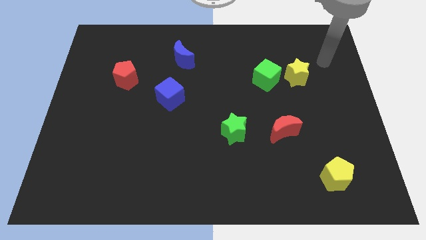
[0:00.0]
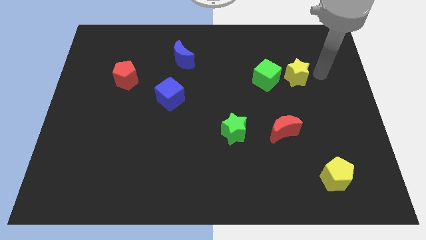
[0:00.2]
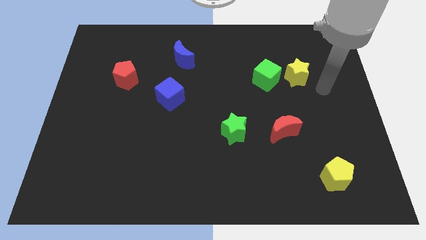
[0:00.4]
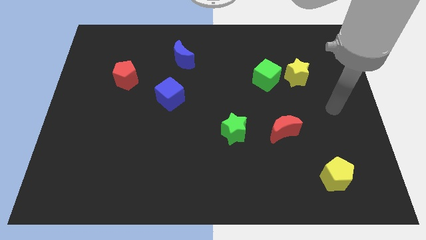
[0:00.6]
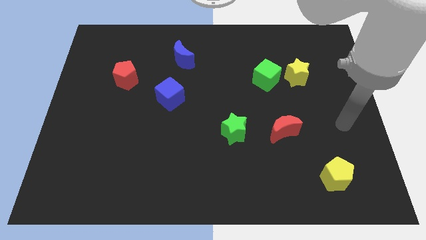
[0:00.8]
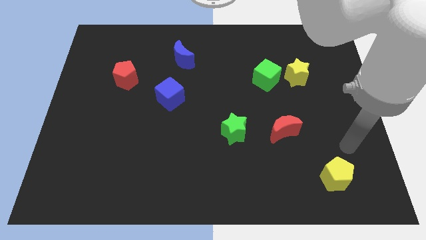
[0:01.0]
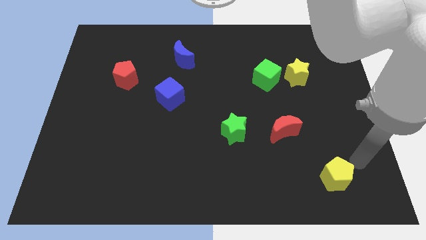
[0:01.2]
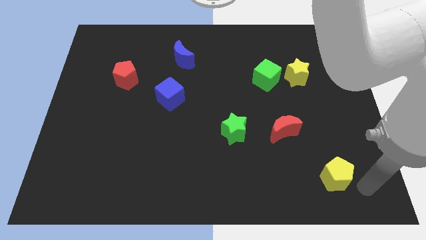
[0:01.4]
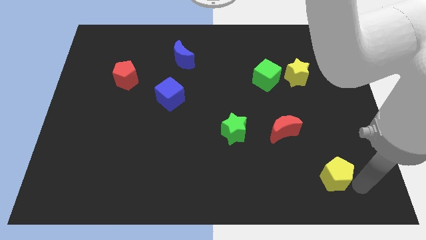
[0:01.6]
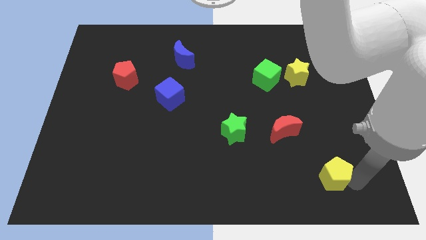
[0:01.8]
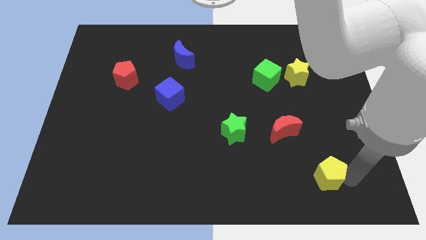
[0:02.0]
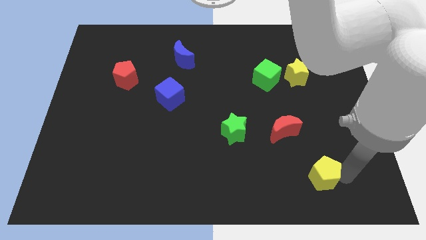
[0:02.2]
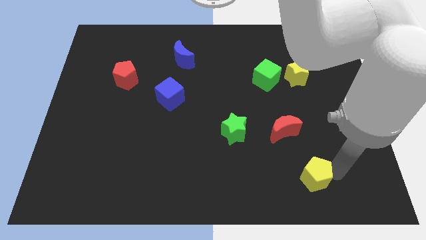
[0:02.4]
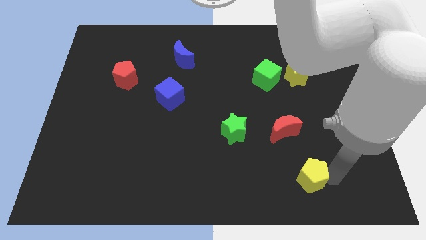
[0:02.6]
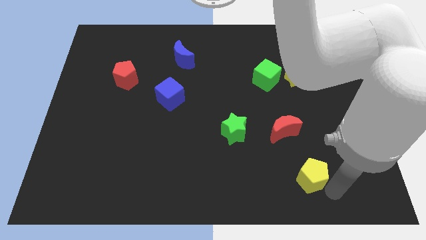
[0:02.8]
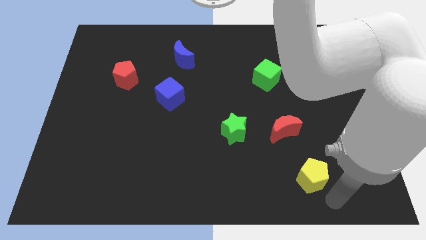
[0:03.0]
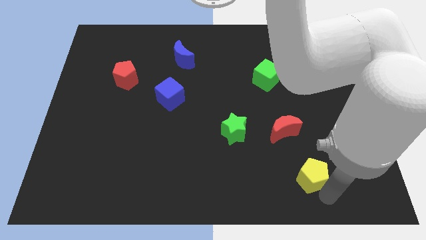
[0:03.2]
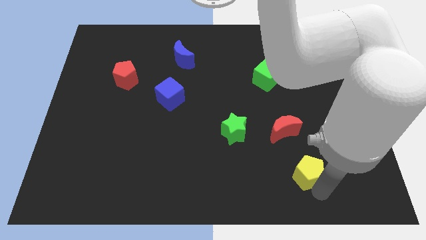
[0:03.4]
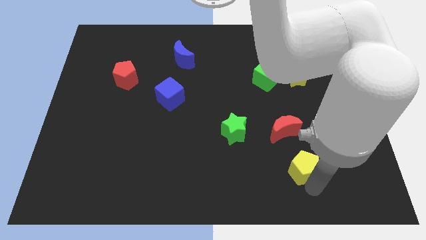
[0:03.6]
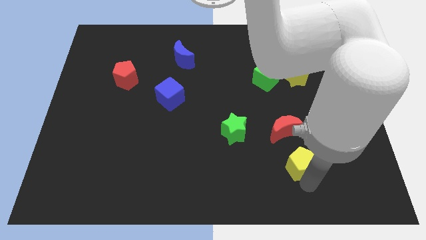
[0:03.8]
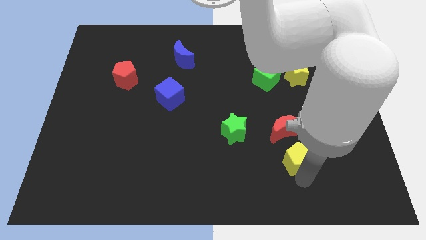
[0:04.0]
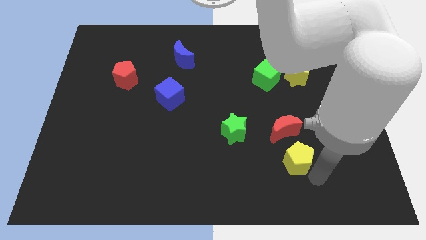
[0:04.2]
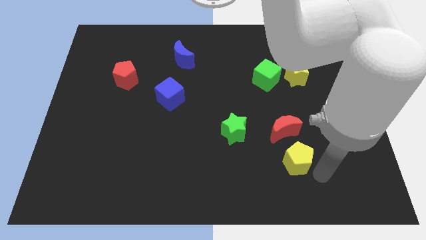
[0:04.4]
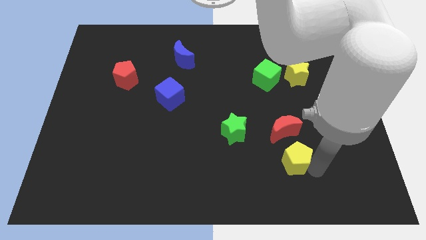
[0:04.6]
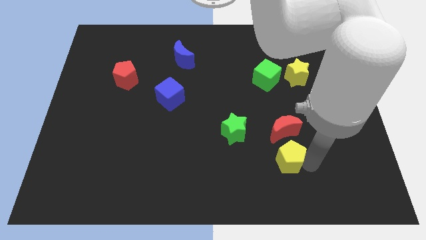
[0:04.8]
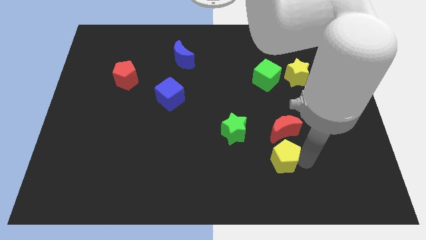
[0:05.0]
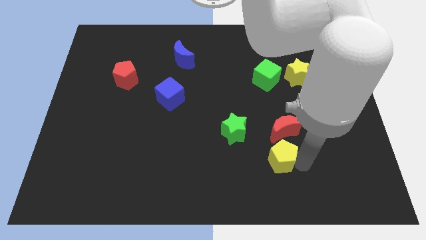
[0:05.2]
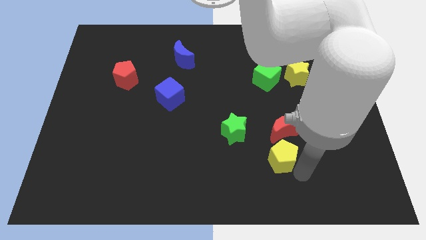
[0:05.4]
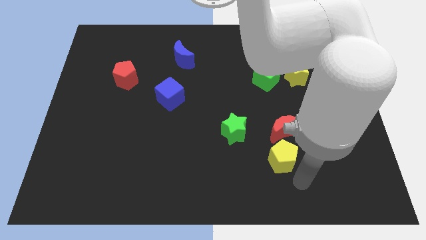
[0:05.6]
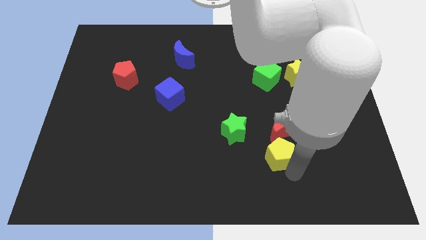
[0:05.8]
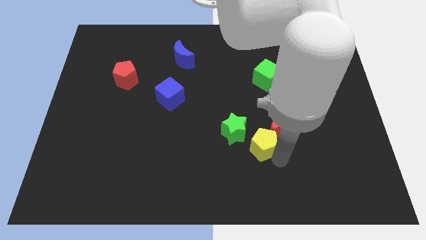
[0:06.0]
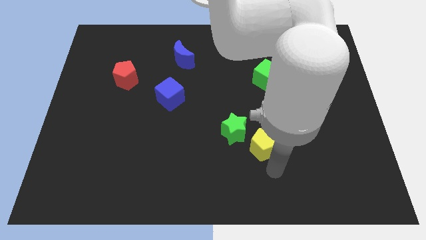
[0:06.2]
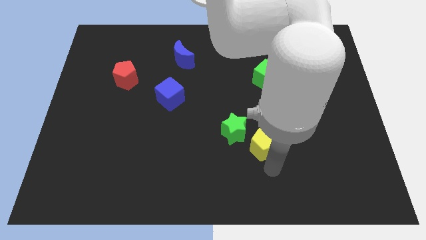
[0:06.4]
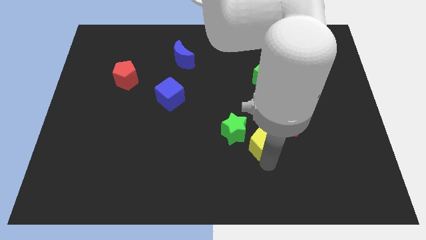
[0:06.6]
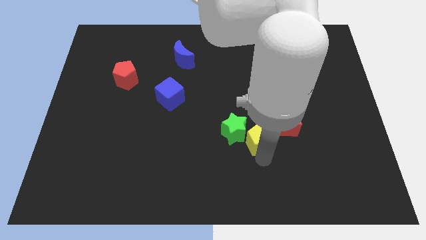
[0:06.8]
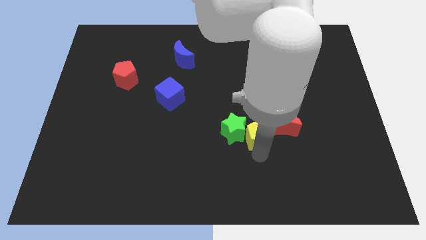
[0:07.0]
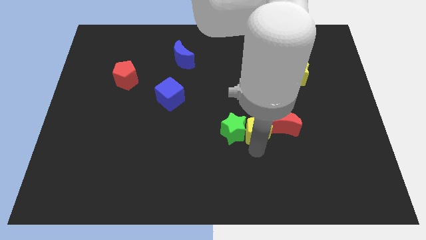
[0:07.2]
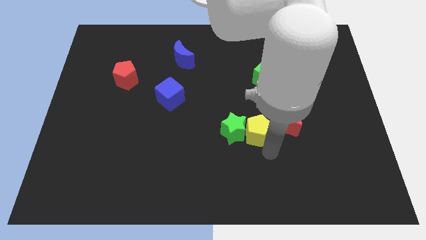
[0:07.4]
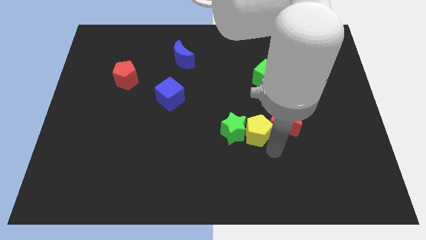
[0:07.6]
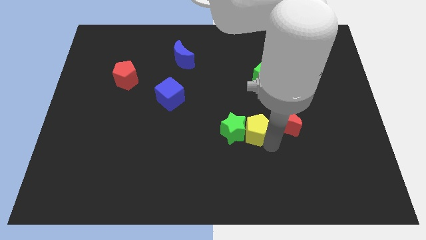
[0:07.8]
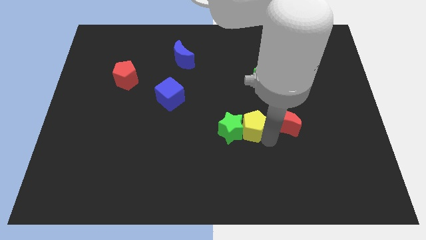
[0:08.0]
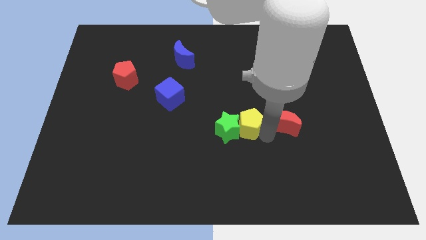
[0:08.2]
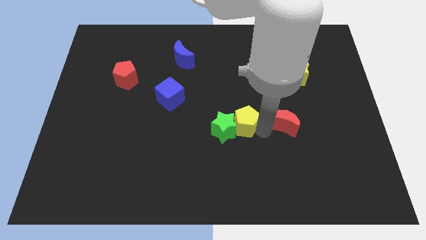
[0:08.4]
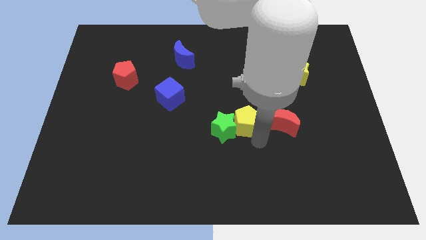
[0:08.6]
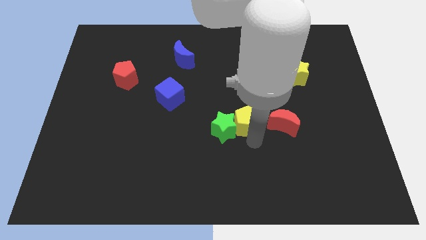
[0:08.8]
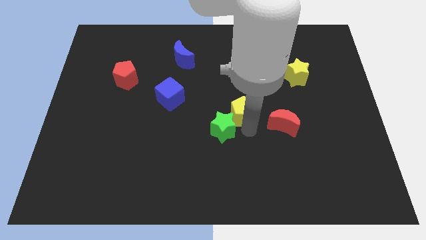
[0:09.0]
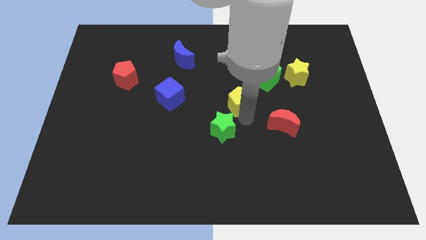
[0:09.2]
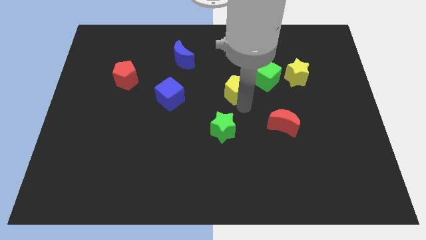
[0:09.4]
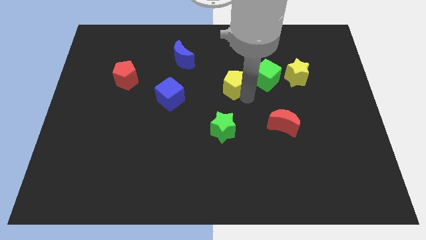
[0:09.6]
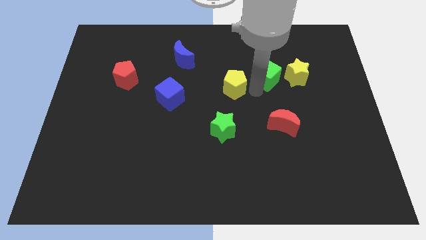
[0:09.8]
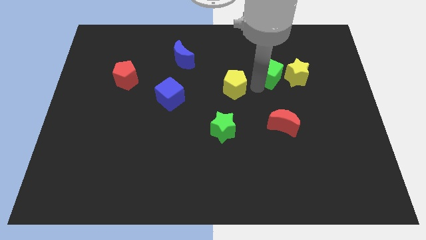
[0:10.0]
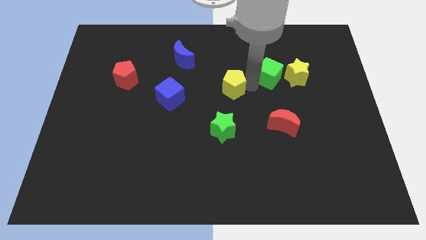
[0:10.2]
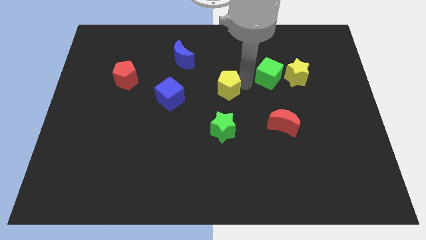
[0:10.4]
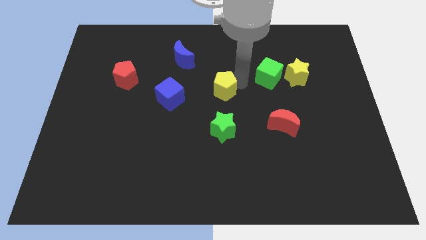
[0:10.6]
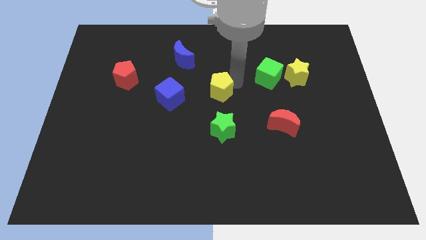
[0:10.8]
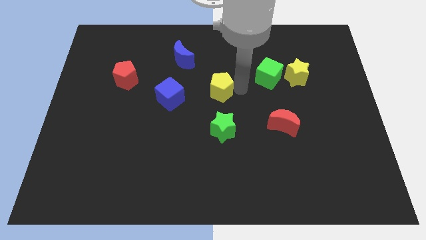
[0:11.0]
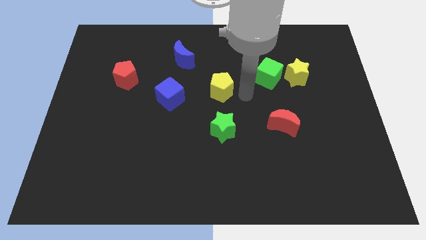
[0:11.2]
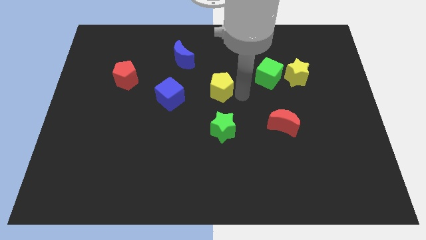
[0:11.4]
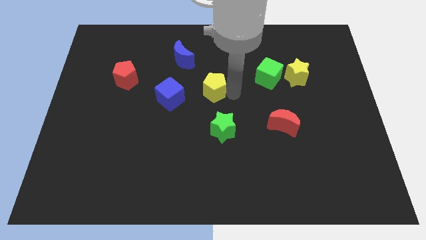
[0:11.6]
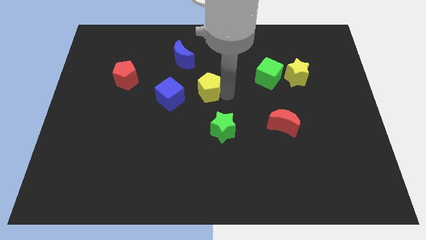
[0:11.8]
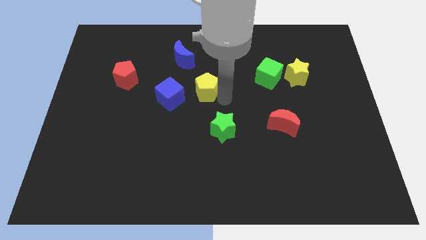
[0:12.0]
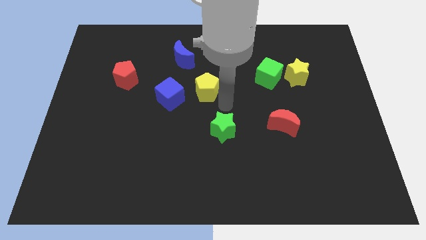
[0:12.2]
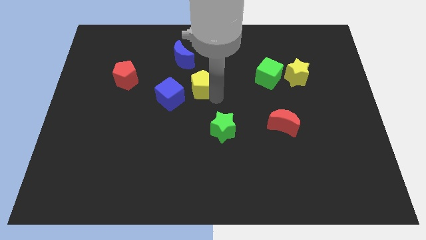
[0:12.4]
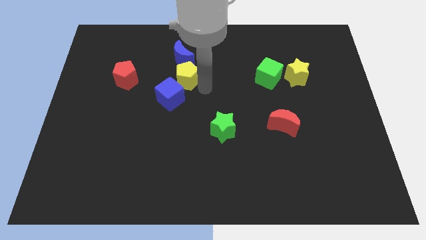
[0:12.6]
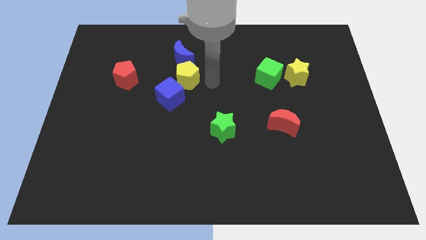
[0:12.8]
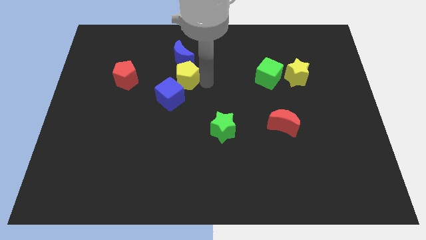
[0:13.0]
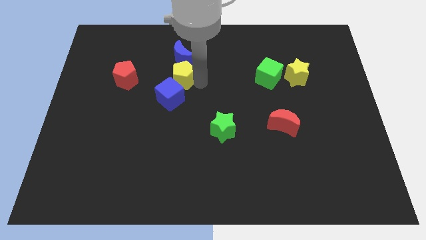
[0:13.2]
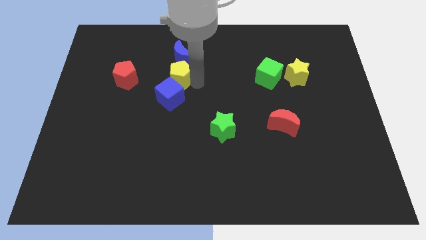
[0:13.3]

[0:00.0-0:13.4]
slide the yellow pentagon diagonally down and to the left of the blue moon
